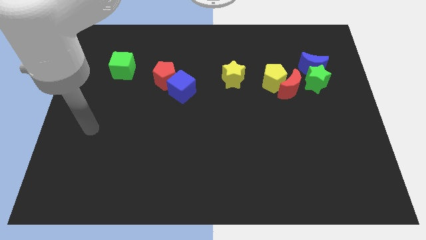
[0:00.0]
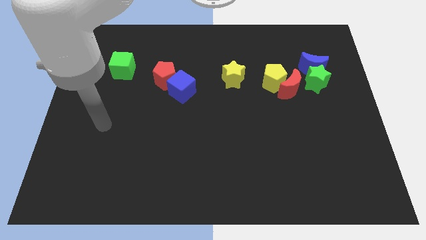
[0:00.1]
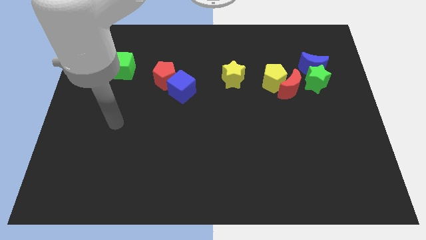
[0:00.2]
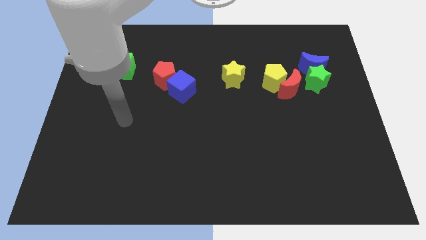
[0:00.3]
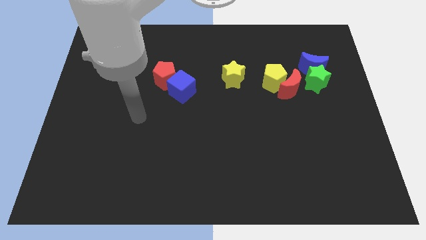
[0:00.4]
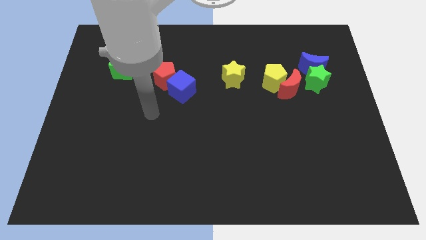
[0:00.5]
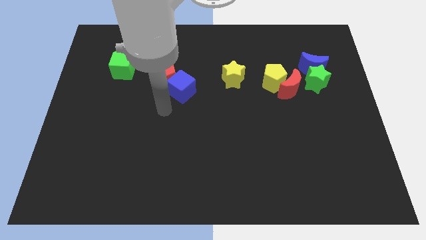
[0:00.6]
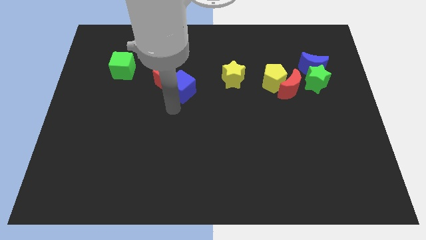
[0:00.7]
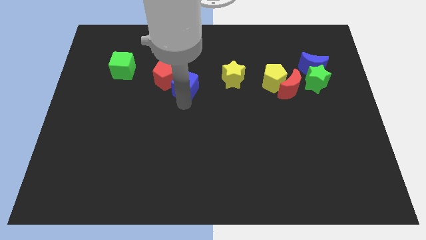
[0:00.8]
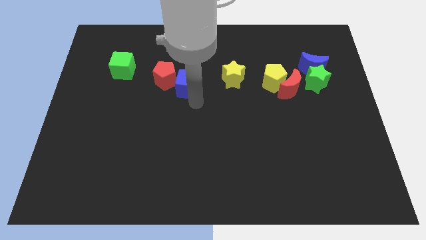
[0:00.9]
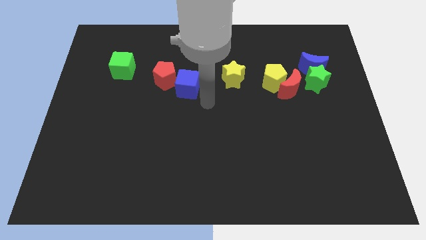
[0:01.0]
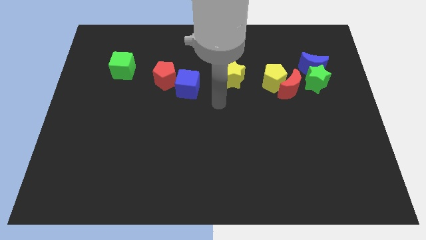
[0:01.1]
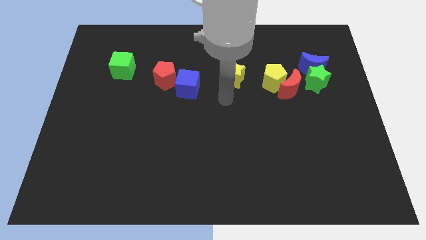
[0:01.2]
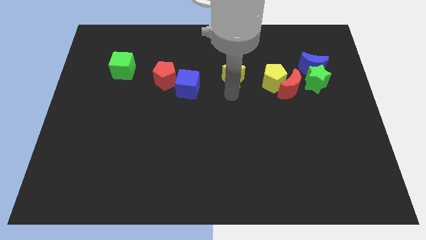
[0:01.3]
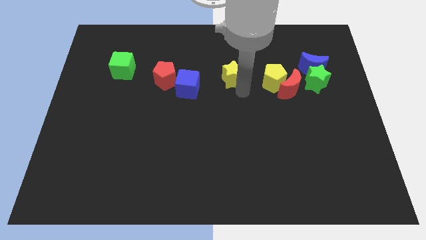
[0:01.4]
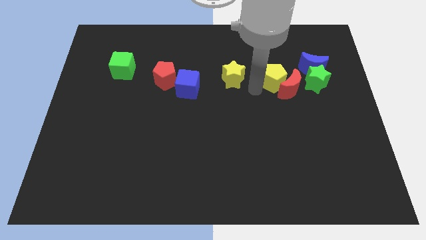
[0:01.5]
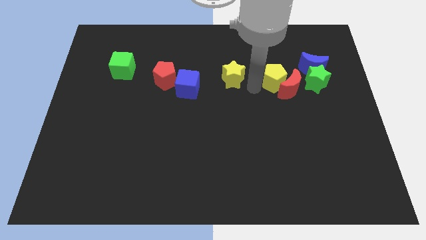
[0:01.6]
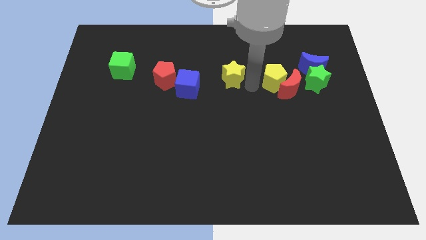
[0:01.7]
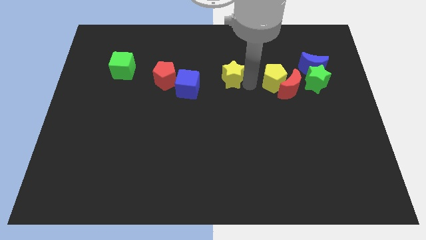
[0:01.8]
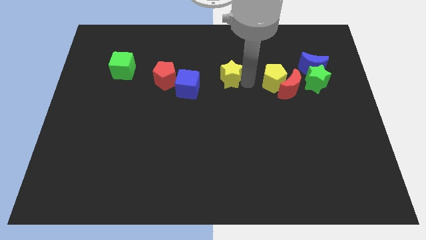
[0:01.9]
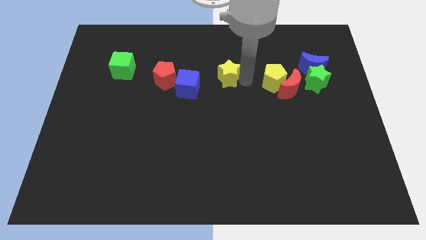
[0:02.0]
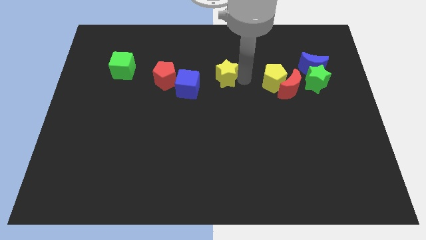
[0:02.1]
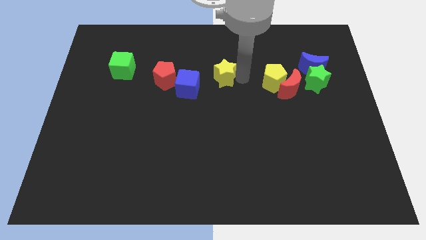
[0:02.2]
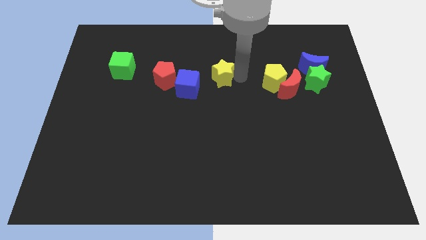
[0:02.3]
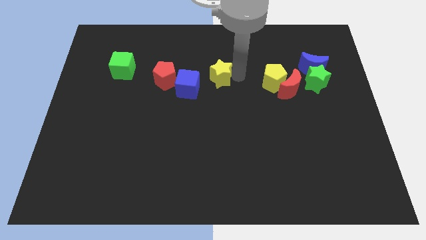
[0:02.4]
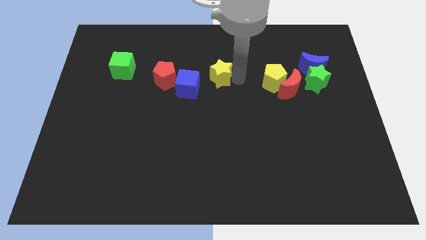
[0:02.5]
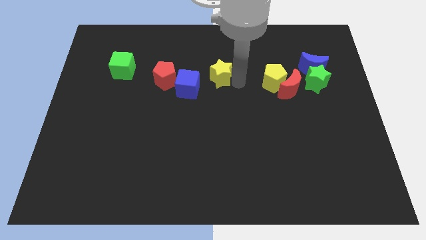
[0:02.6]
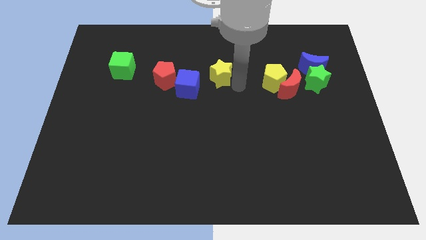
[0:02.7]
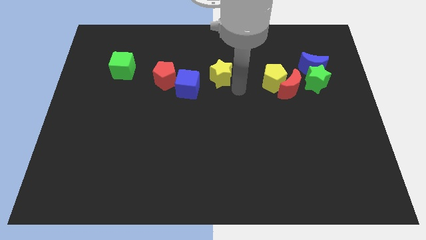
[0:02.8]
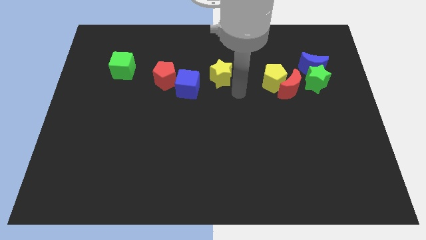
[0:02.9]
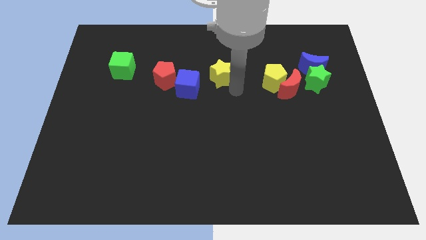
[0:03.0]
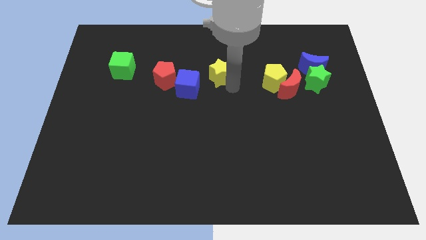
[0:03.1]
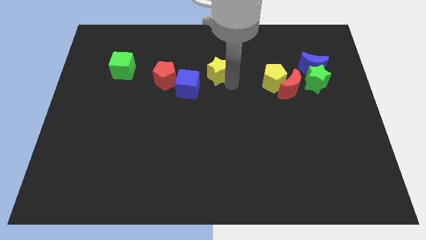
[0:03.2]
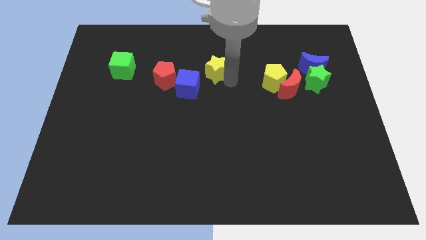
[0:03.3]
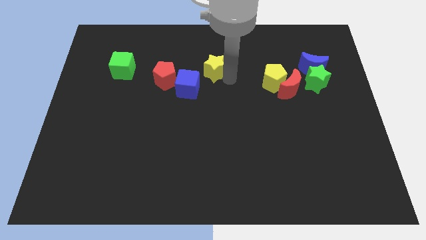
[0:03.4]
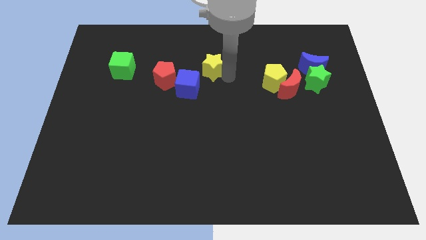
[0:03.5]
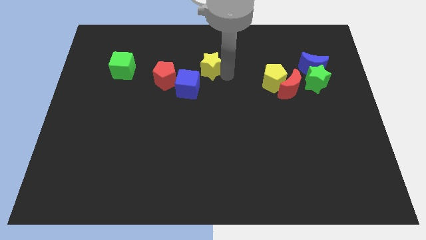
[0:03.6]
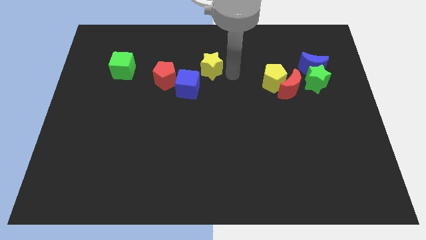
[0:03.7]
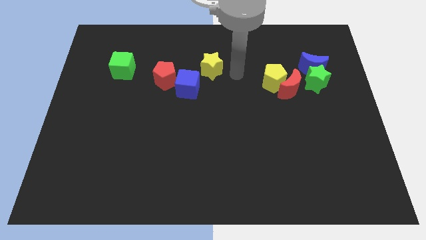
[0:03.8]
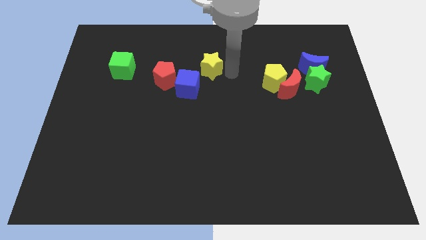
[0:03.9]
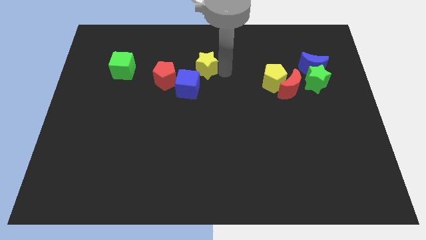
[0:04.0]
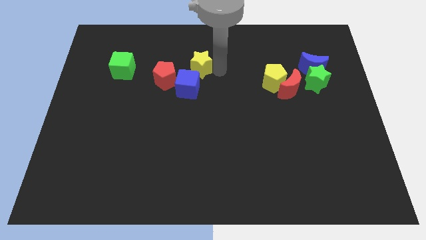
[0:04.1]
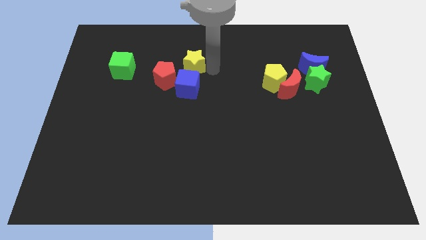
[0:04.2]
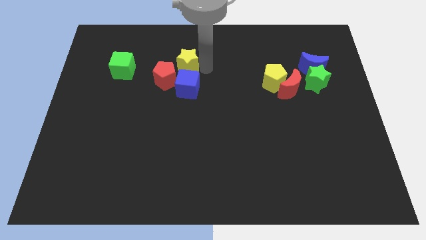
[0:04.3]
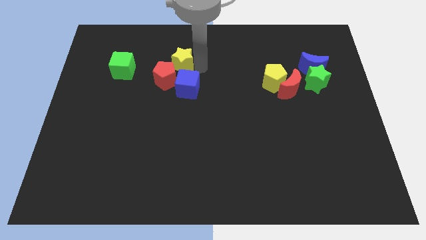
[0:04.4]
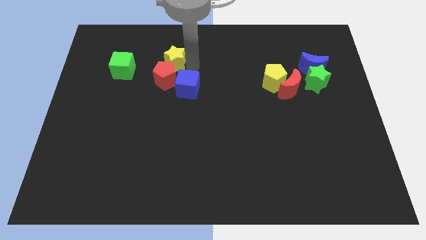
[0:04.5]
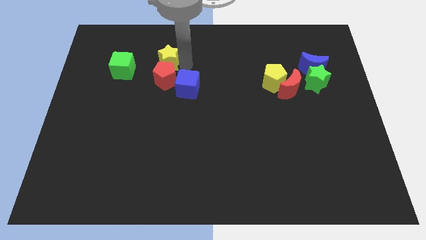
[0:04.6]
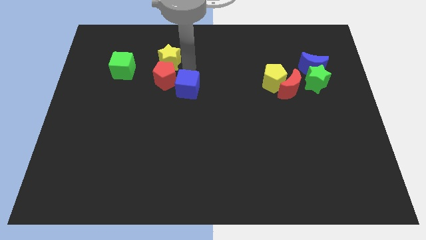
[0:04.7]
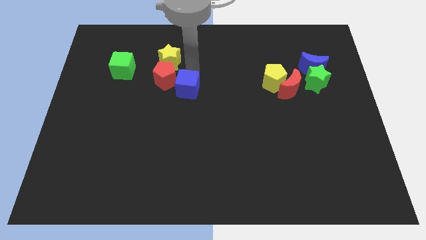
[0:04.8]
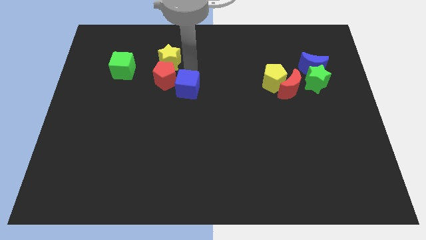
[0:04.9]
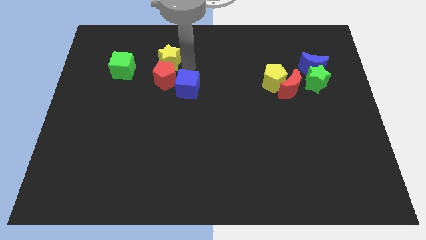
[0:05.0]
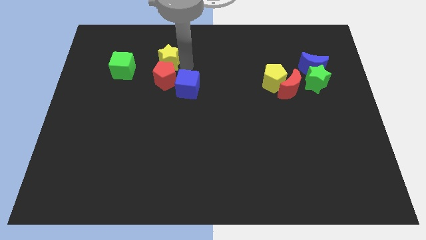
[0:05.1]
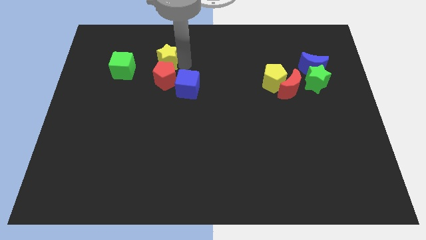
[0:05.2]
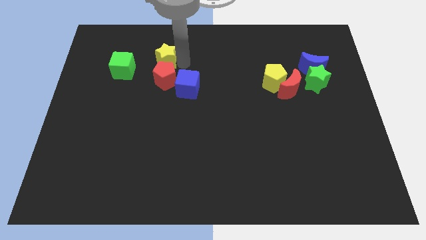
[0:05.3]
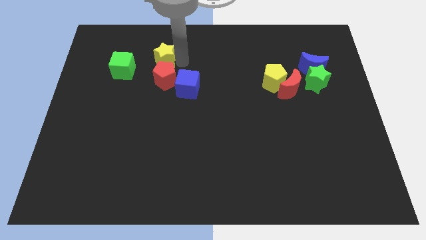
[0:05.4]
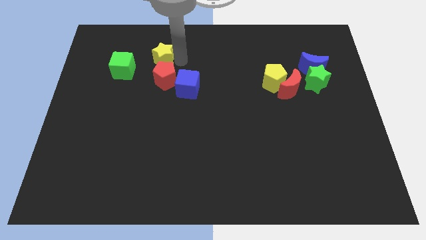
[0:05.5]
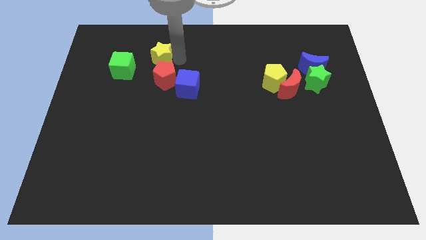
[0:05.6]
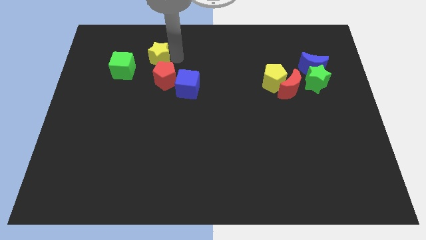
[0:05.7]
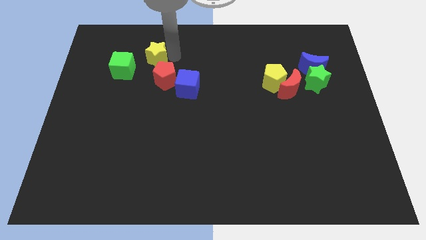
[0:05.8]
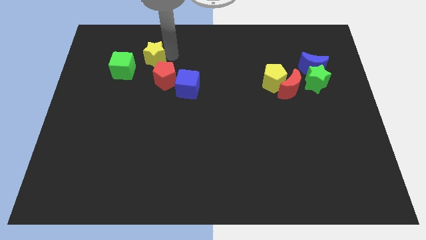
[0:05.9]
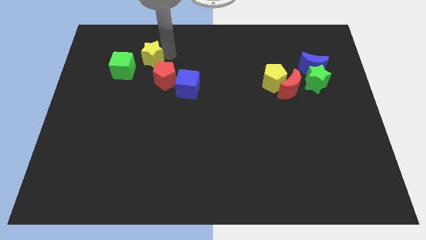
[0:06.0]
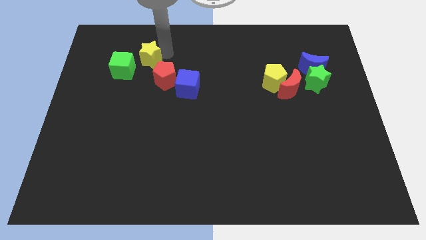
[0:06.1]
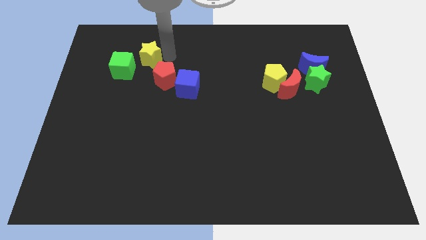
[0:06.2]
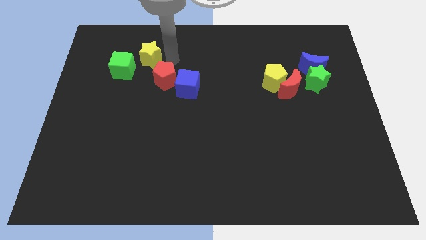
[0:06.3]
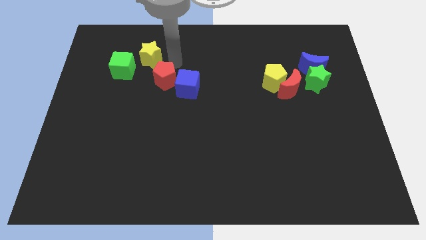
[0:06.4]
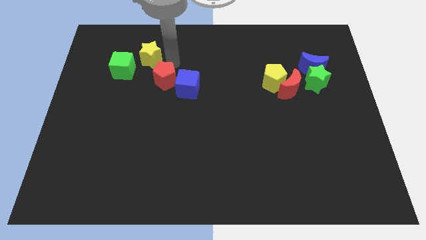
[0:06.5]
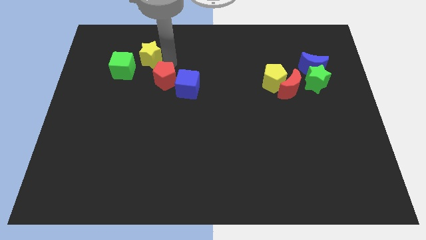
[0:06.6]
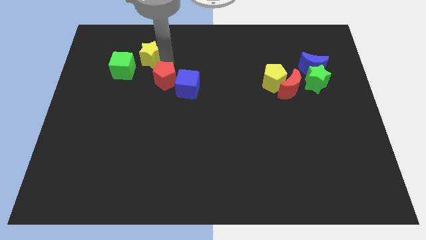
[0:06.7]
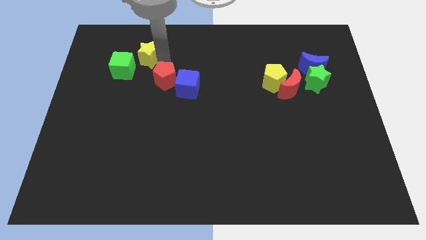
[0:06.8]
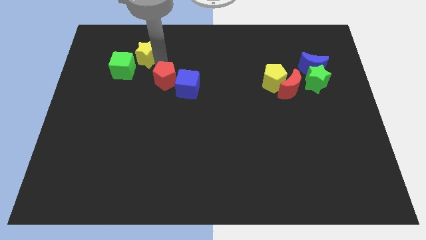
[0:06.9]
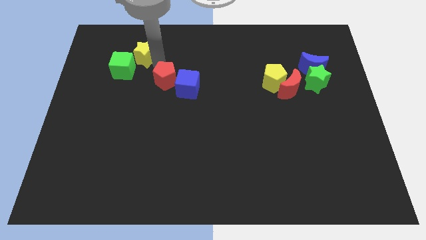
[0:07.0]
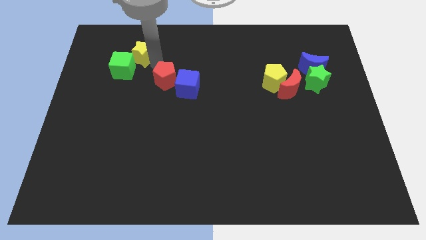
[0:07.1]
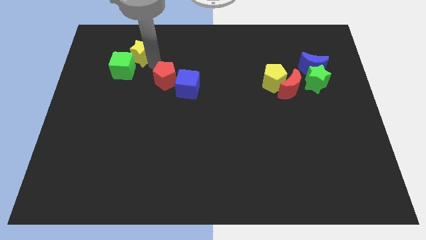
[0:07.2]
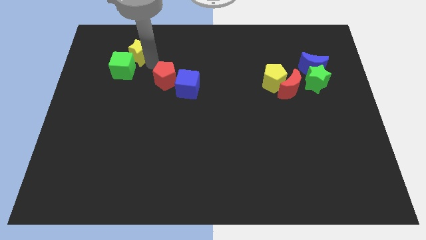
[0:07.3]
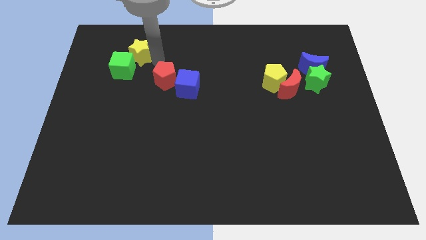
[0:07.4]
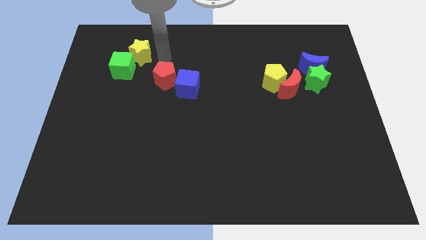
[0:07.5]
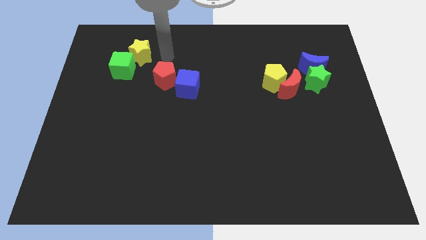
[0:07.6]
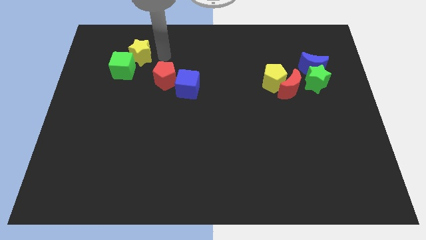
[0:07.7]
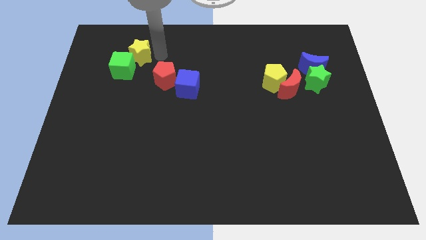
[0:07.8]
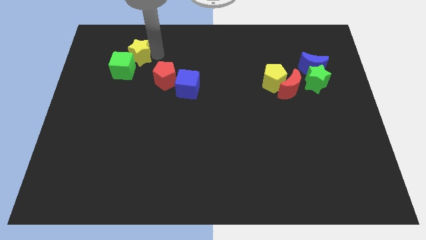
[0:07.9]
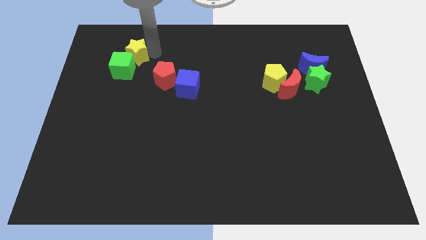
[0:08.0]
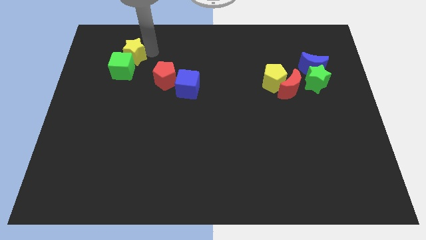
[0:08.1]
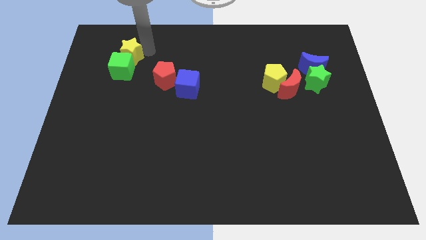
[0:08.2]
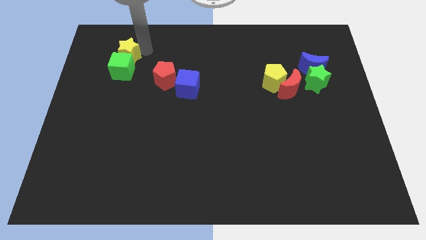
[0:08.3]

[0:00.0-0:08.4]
slide the yellow star diagonally up and to the left of the green cube
